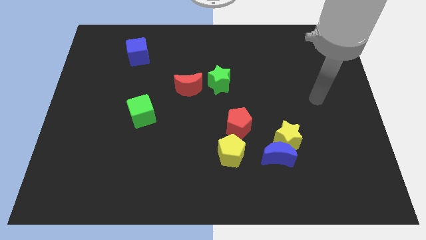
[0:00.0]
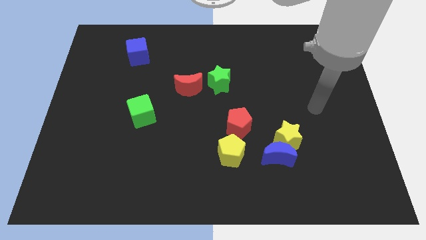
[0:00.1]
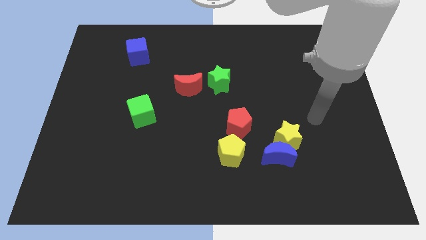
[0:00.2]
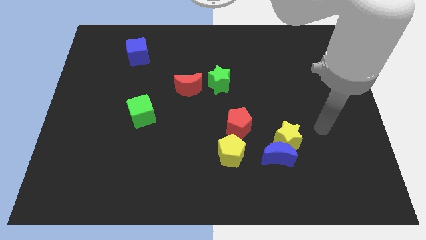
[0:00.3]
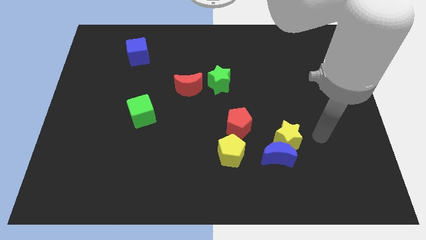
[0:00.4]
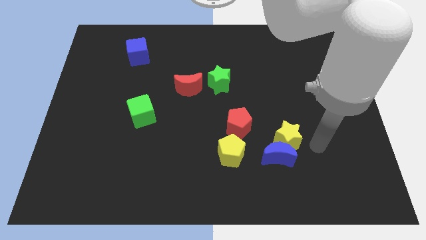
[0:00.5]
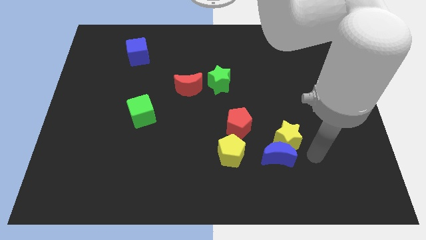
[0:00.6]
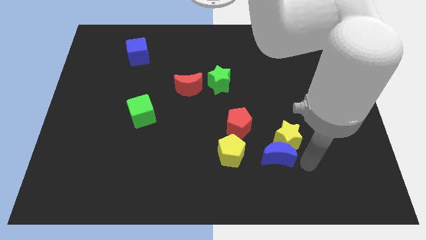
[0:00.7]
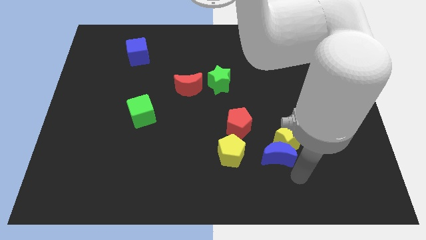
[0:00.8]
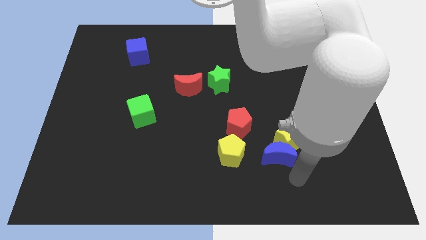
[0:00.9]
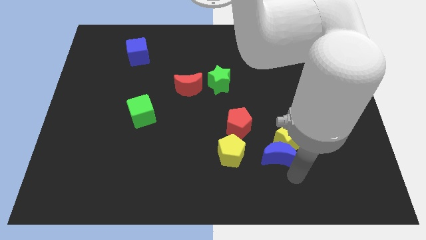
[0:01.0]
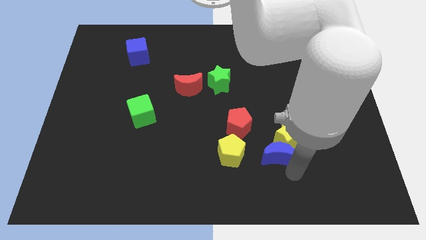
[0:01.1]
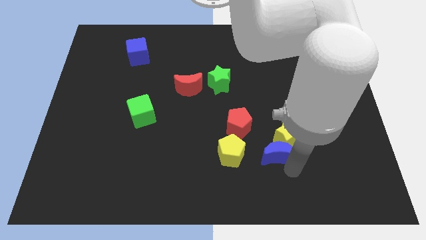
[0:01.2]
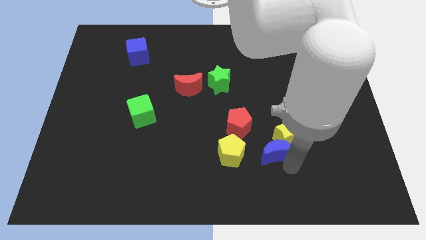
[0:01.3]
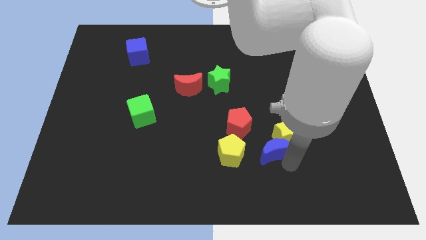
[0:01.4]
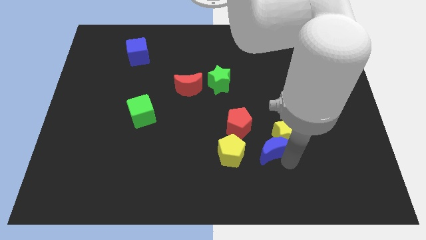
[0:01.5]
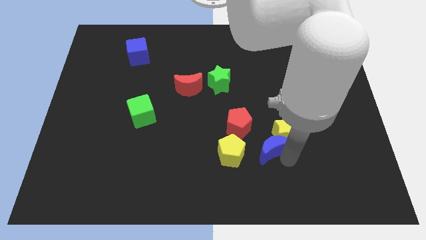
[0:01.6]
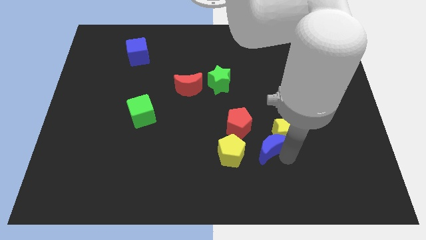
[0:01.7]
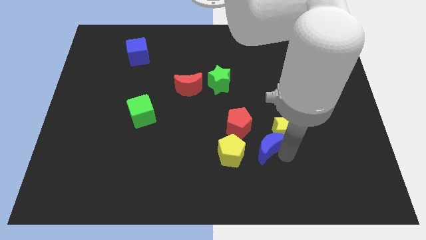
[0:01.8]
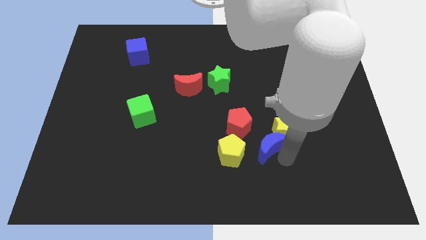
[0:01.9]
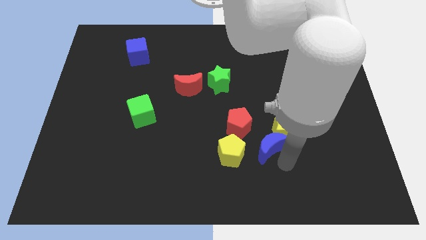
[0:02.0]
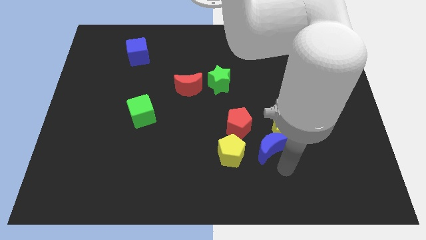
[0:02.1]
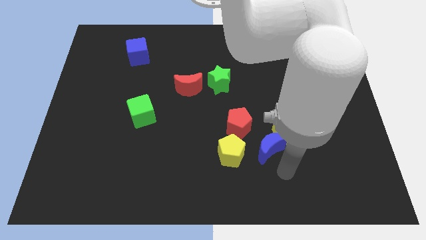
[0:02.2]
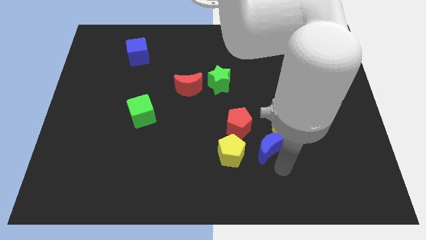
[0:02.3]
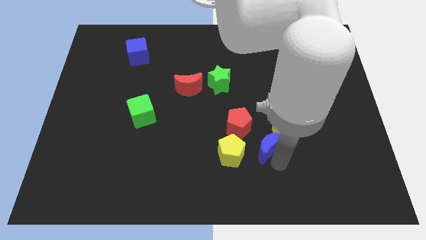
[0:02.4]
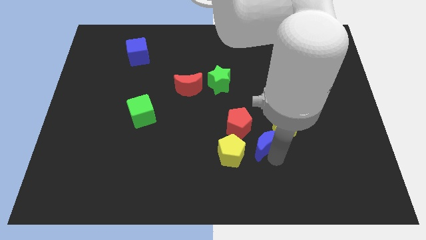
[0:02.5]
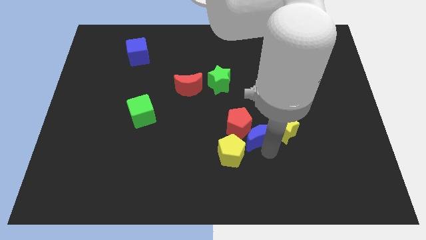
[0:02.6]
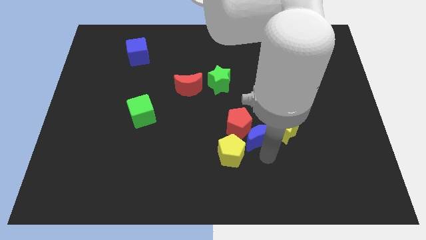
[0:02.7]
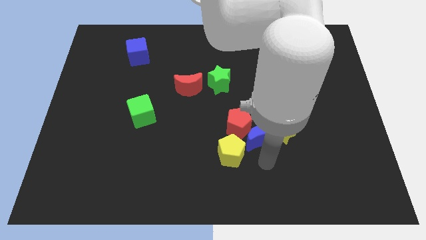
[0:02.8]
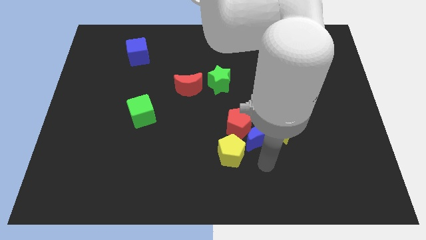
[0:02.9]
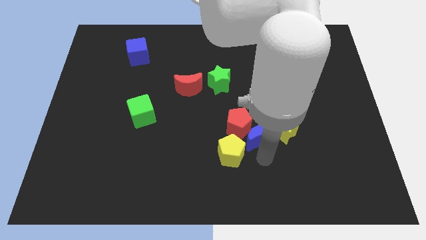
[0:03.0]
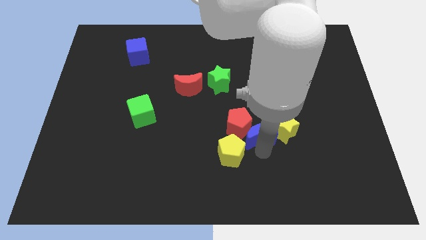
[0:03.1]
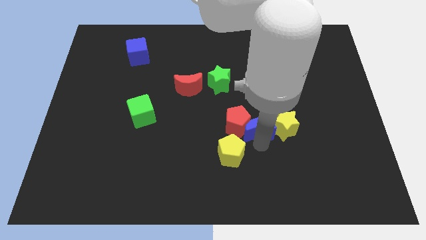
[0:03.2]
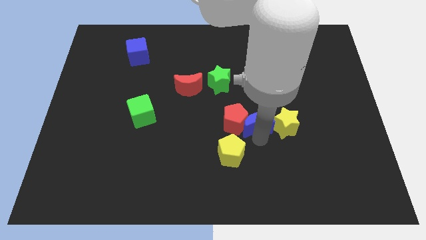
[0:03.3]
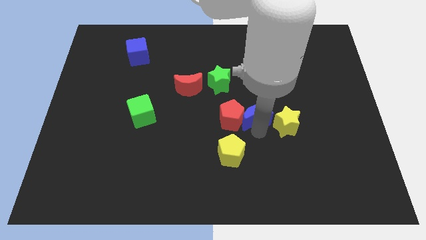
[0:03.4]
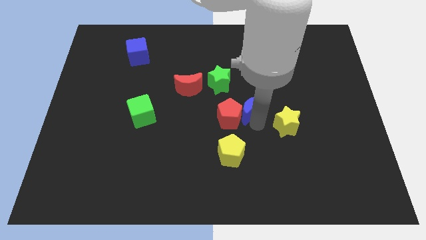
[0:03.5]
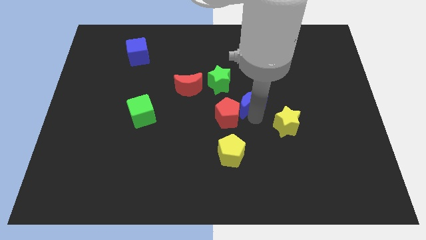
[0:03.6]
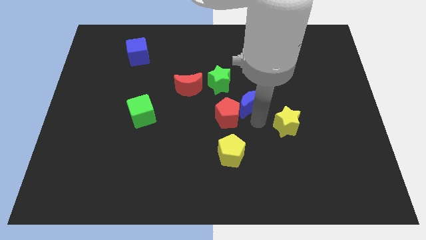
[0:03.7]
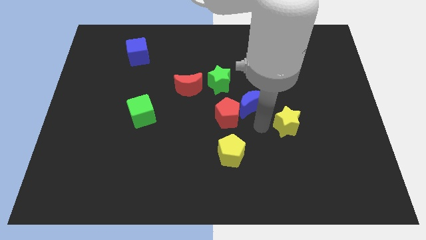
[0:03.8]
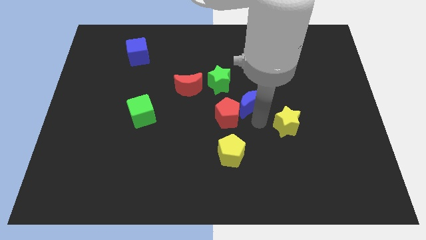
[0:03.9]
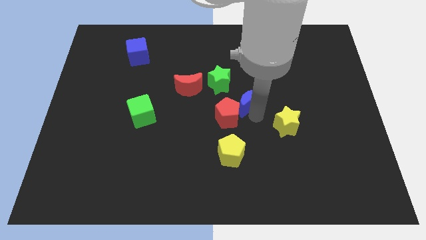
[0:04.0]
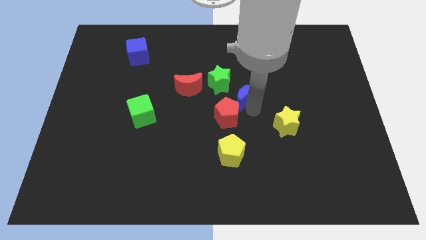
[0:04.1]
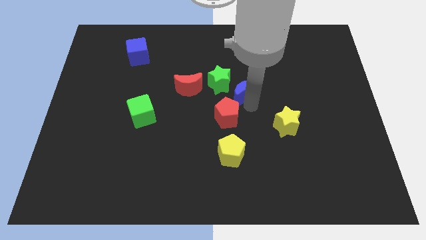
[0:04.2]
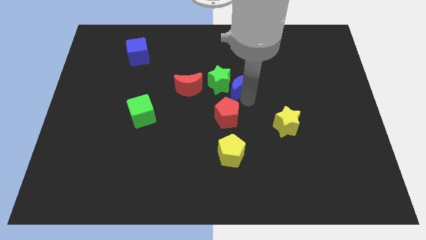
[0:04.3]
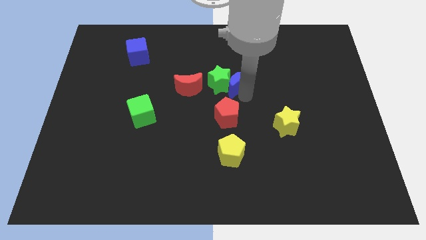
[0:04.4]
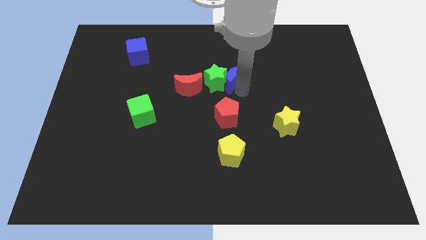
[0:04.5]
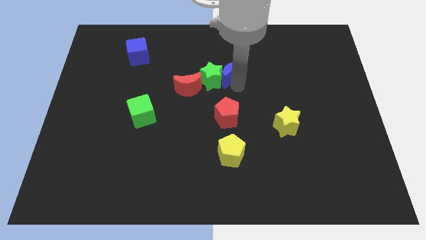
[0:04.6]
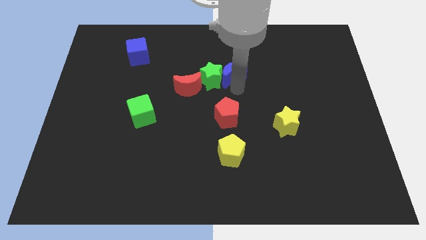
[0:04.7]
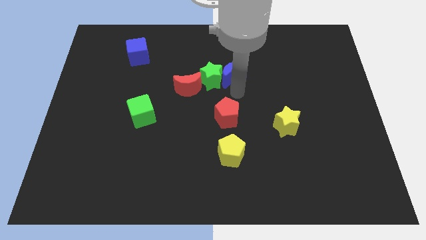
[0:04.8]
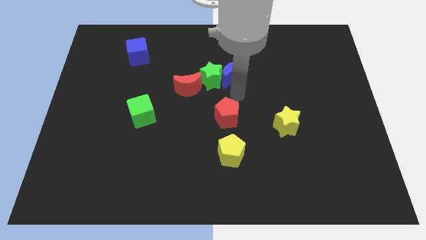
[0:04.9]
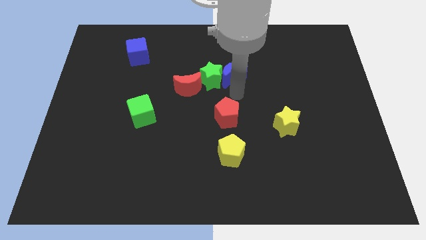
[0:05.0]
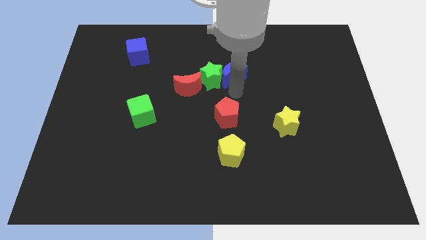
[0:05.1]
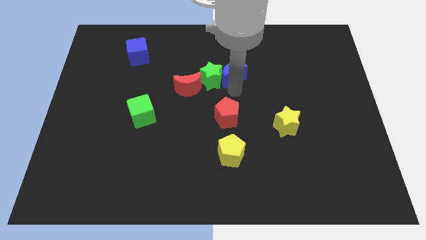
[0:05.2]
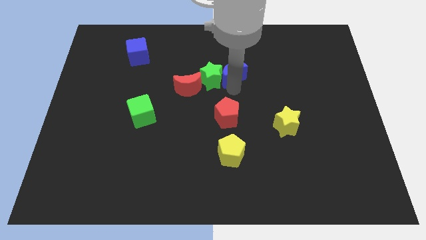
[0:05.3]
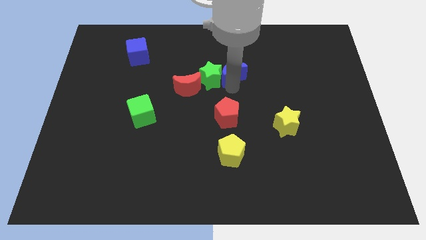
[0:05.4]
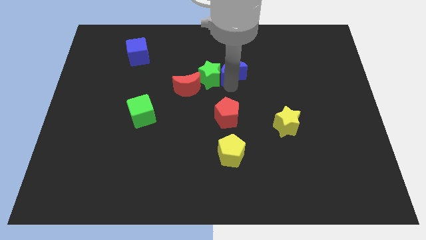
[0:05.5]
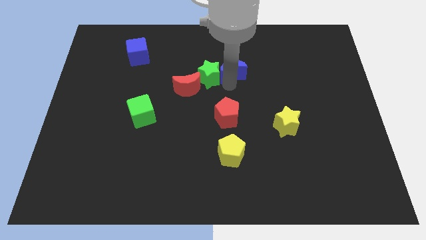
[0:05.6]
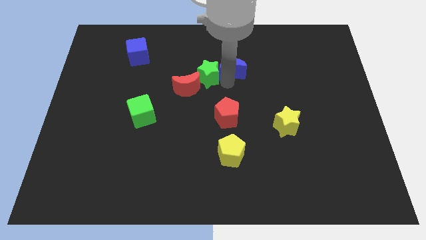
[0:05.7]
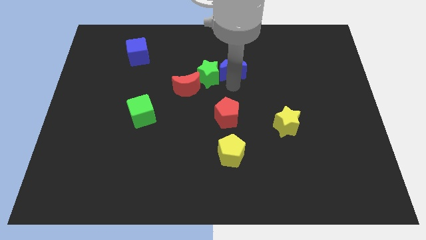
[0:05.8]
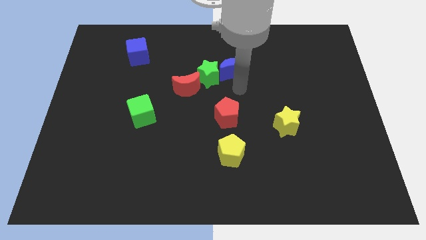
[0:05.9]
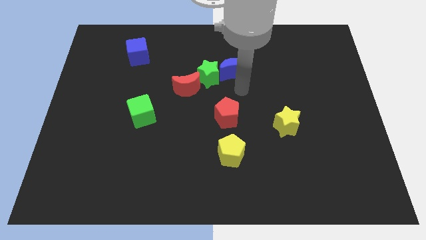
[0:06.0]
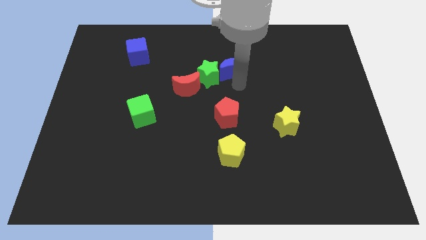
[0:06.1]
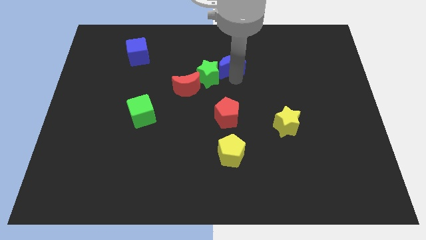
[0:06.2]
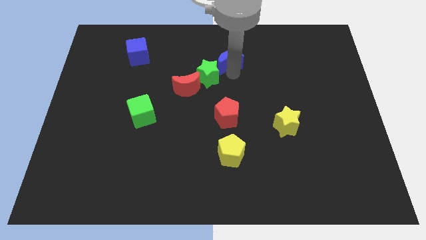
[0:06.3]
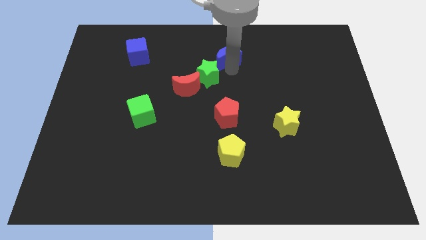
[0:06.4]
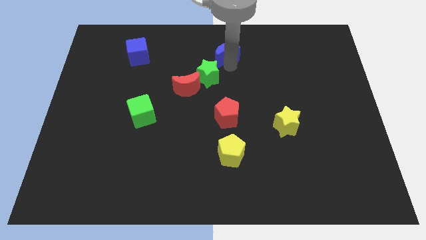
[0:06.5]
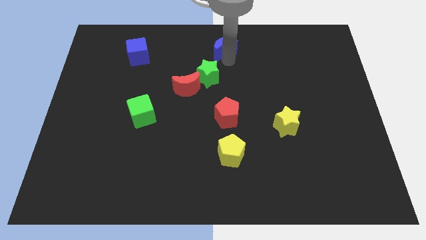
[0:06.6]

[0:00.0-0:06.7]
put the blue moon to the top
